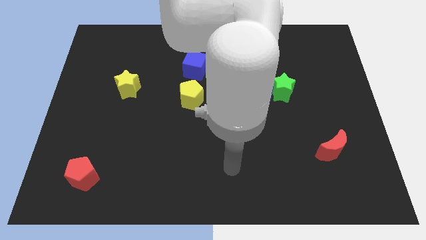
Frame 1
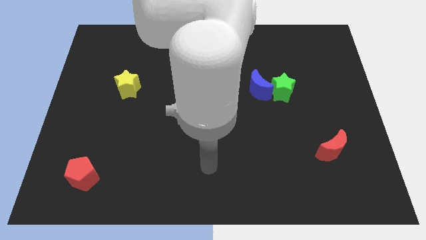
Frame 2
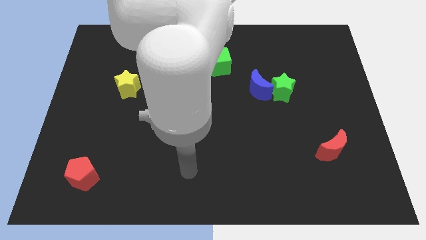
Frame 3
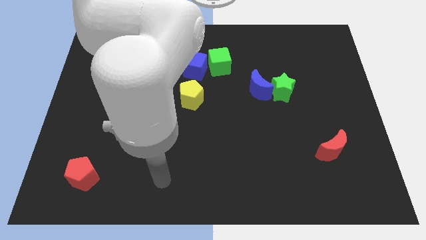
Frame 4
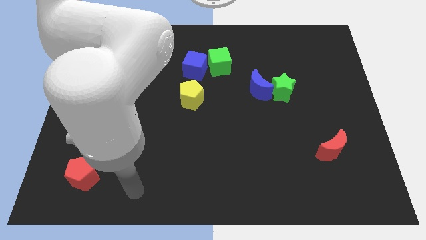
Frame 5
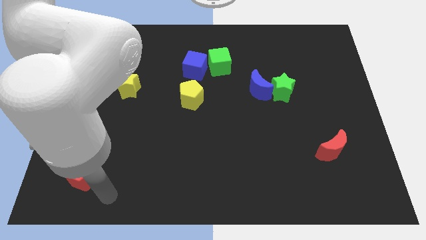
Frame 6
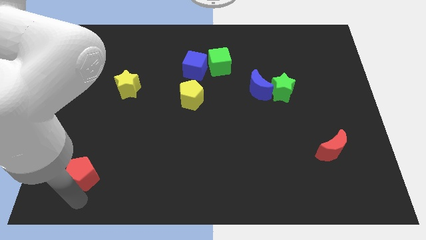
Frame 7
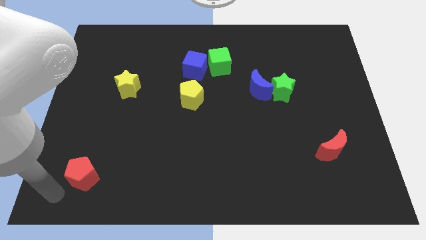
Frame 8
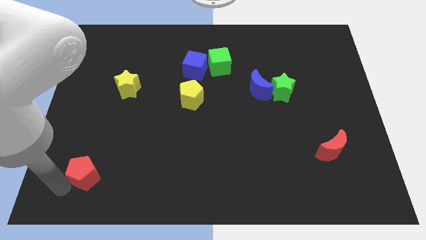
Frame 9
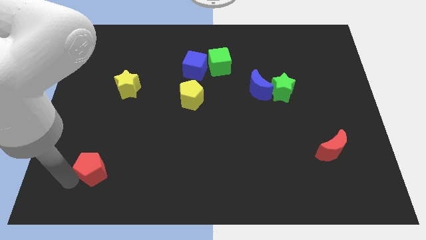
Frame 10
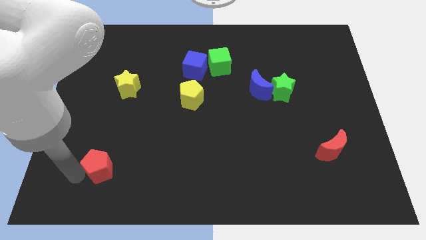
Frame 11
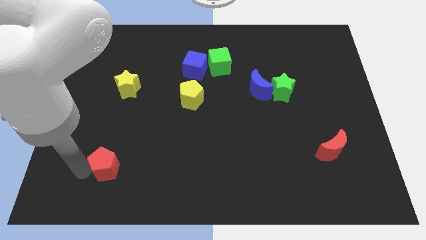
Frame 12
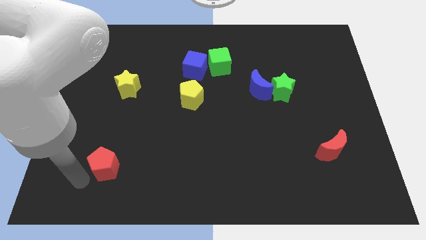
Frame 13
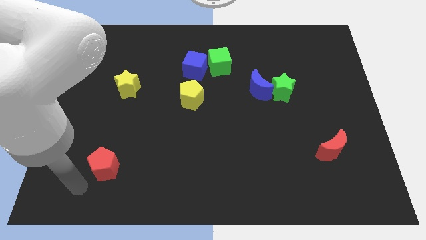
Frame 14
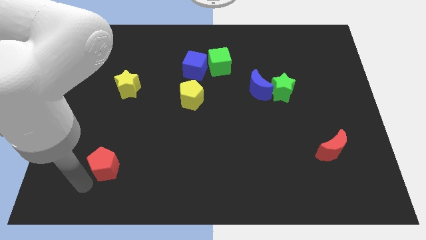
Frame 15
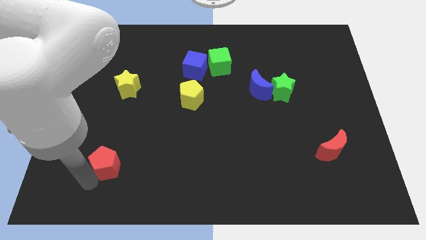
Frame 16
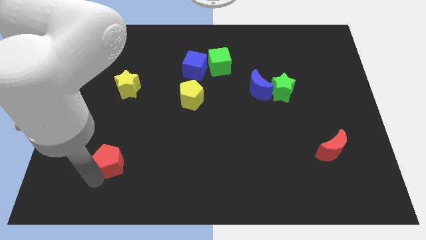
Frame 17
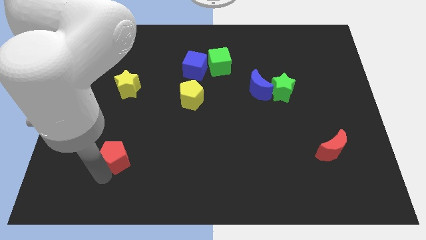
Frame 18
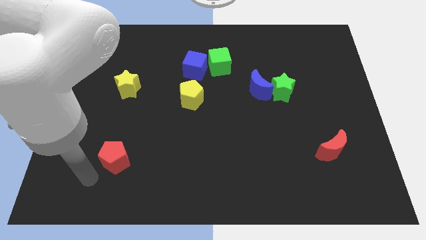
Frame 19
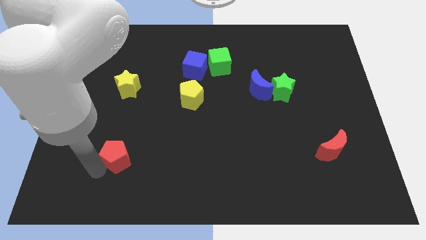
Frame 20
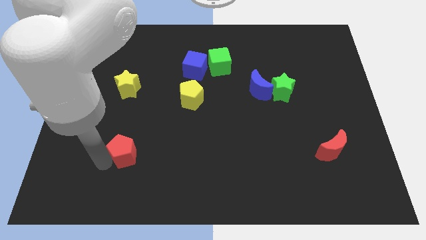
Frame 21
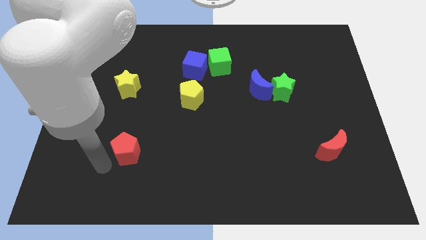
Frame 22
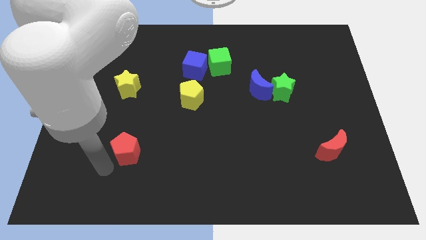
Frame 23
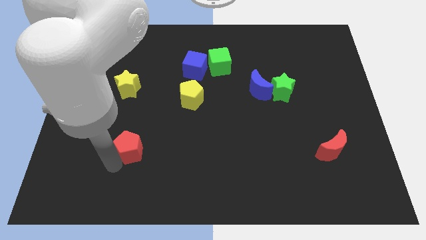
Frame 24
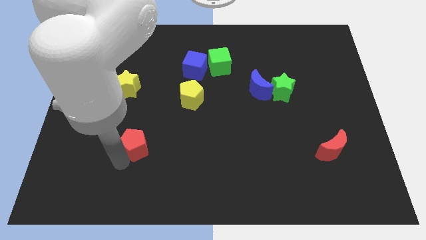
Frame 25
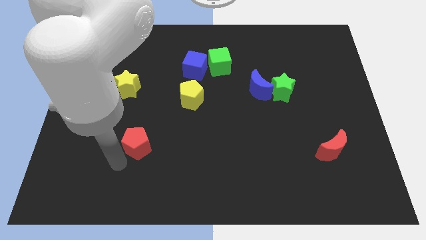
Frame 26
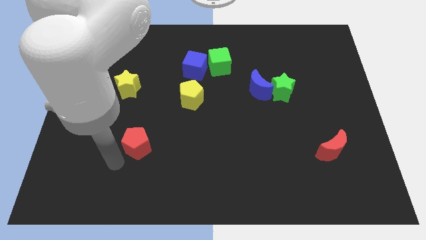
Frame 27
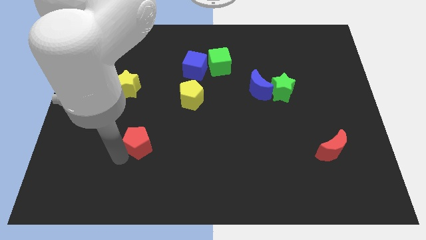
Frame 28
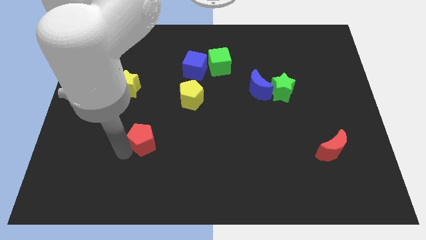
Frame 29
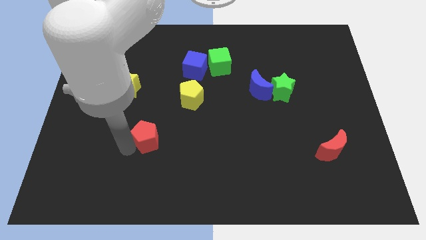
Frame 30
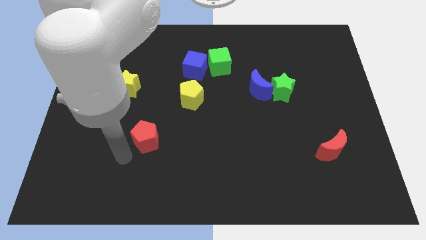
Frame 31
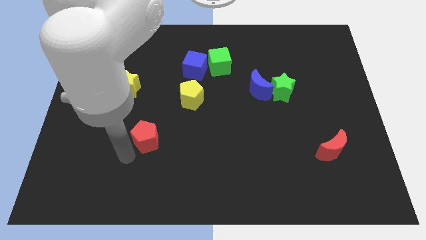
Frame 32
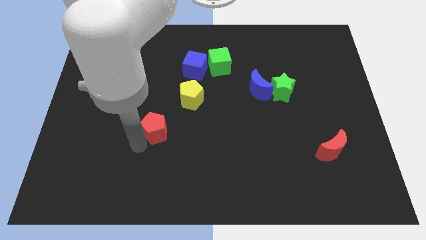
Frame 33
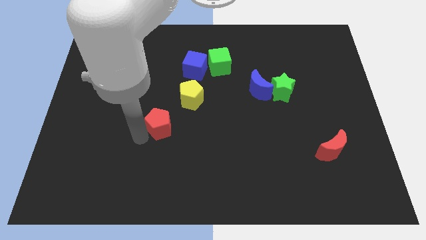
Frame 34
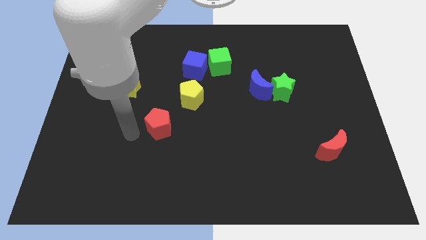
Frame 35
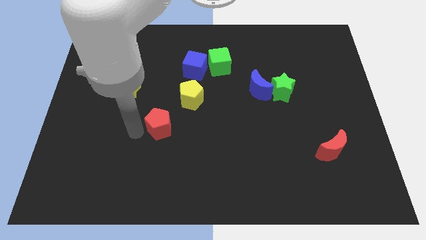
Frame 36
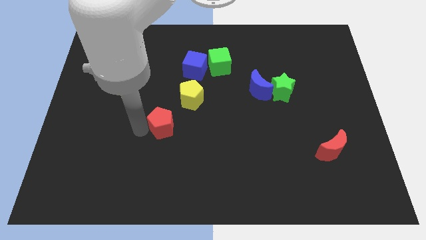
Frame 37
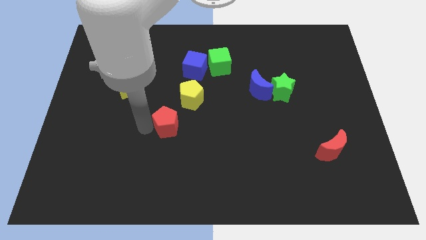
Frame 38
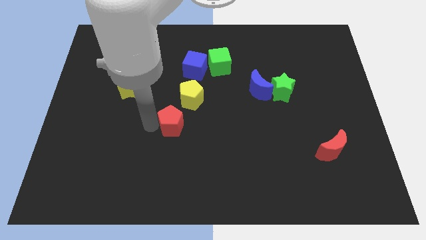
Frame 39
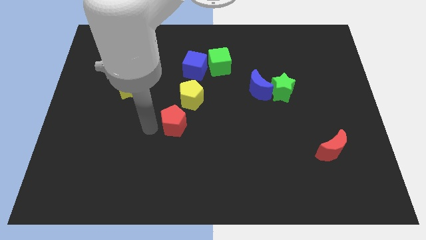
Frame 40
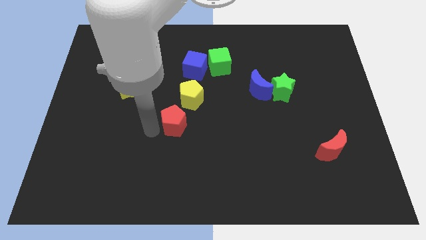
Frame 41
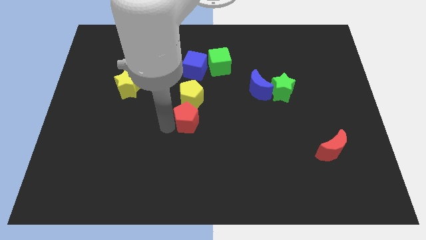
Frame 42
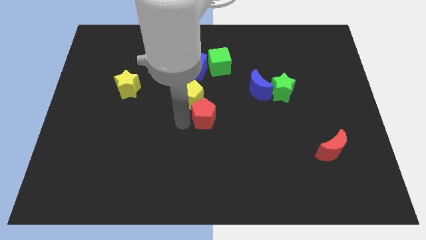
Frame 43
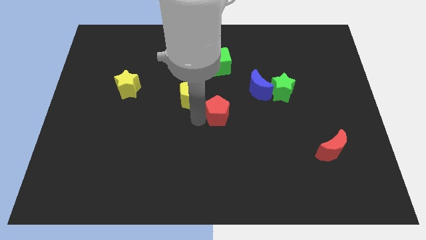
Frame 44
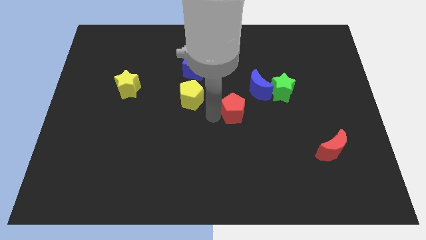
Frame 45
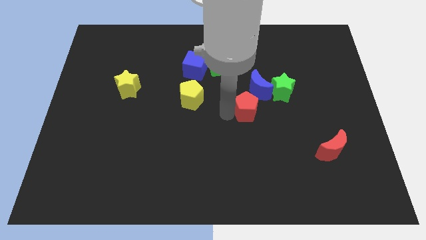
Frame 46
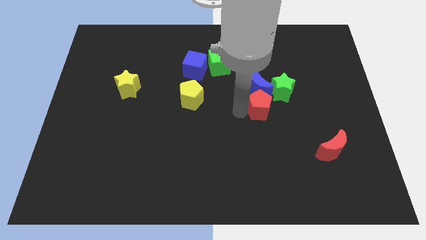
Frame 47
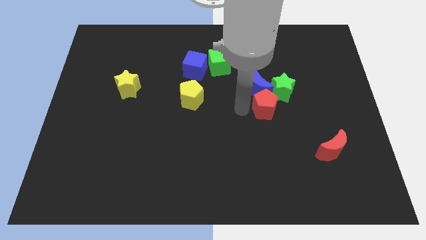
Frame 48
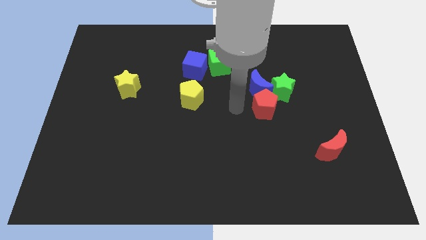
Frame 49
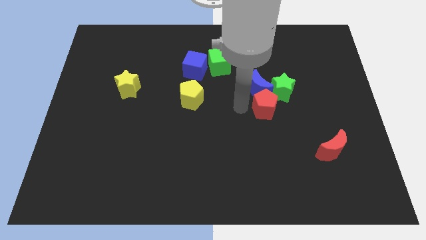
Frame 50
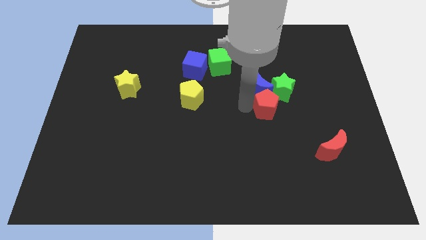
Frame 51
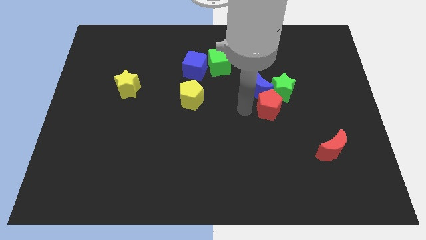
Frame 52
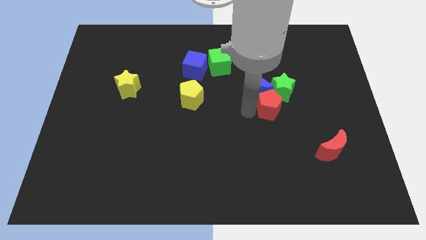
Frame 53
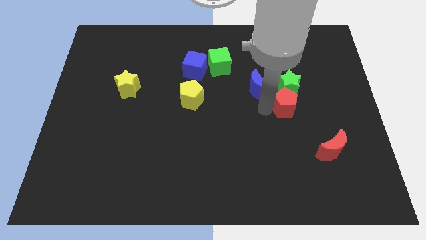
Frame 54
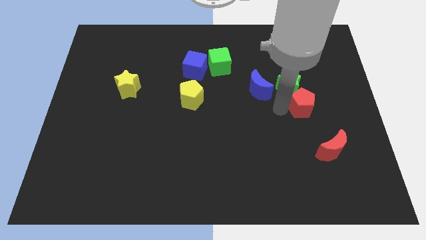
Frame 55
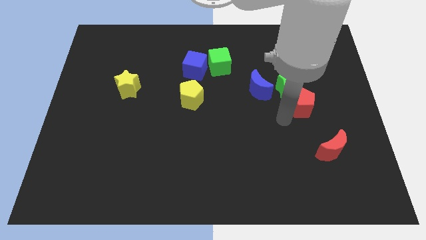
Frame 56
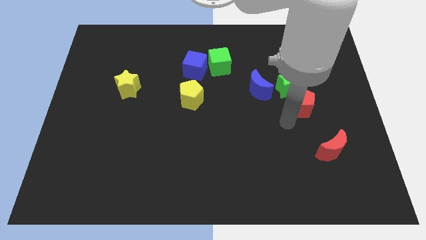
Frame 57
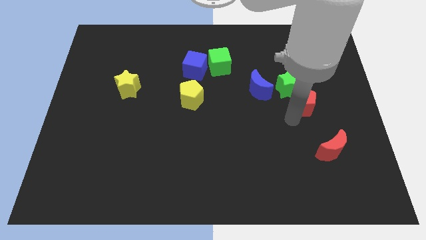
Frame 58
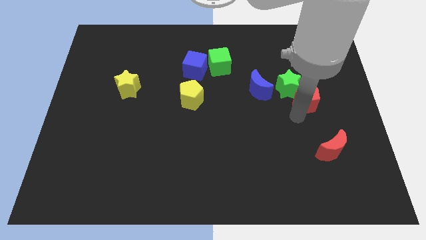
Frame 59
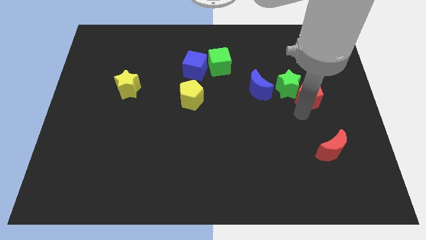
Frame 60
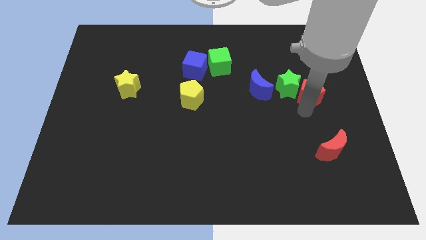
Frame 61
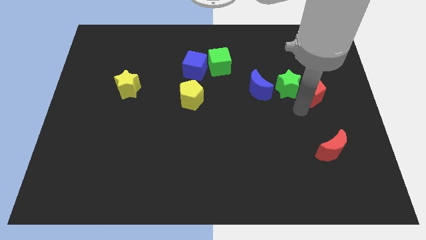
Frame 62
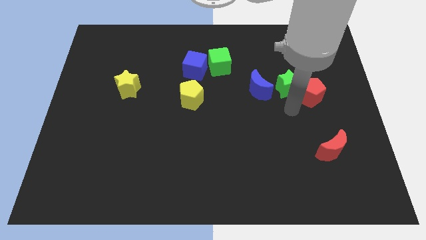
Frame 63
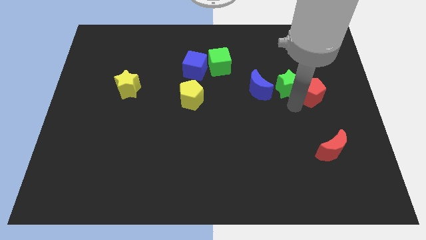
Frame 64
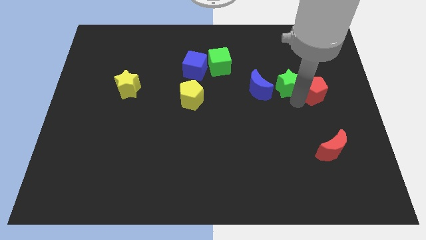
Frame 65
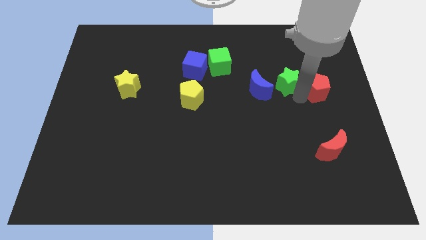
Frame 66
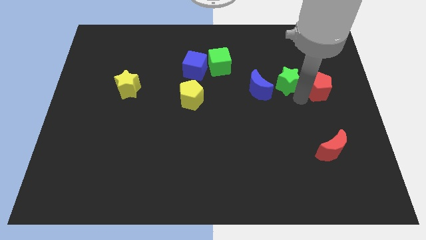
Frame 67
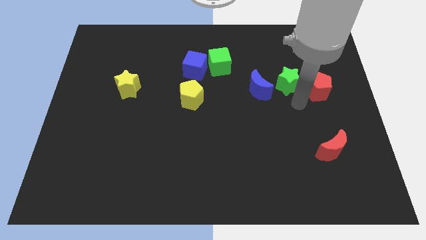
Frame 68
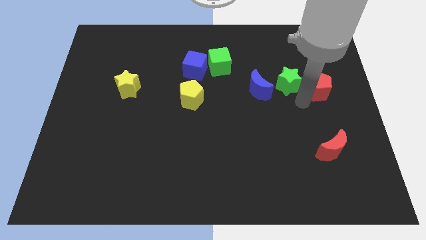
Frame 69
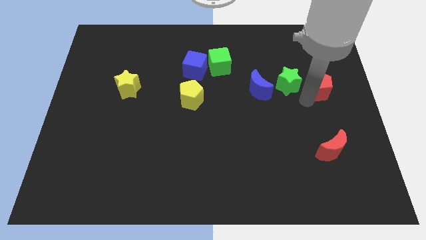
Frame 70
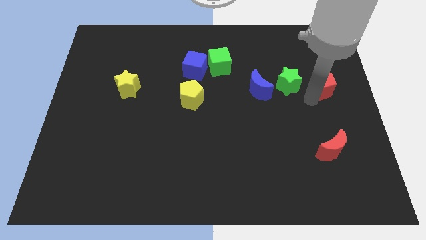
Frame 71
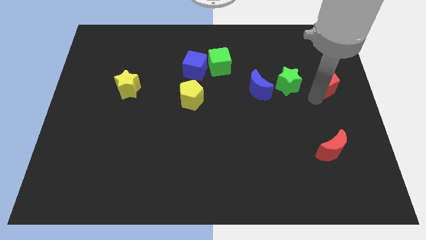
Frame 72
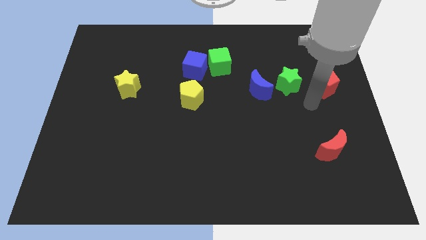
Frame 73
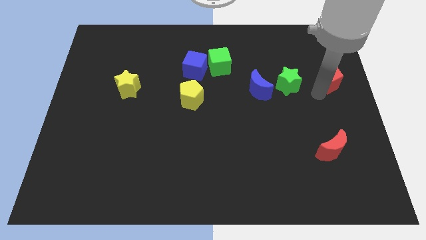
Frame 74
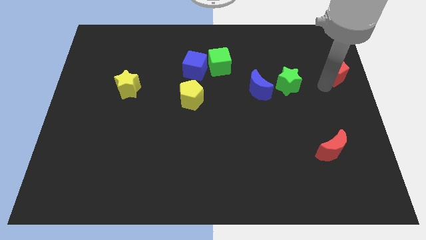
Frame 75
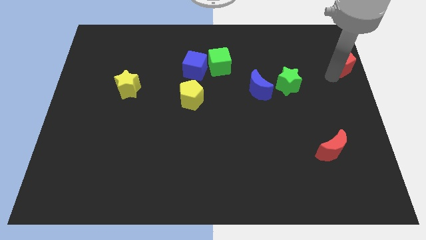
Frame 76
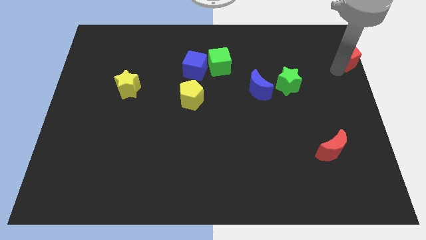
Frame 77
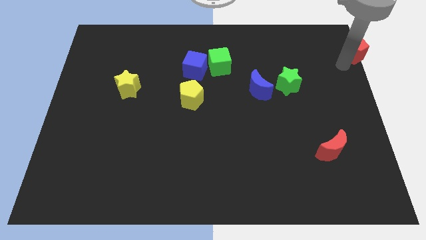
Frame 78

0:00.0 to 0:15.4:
move the red pentagon to the top right
